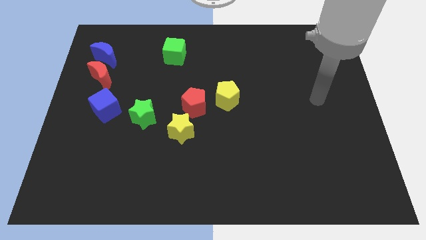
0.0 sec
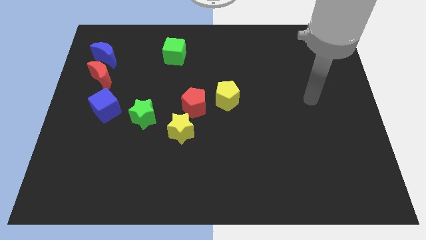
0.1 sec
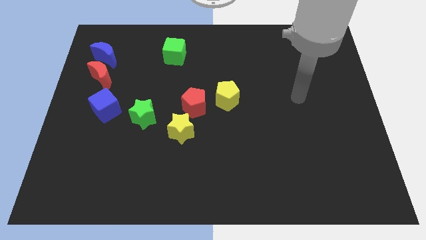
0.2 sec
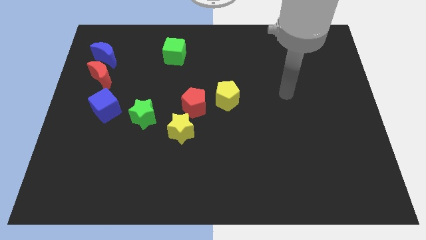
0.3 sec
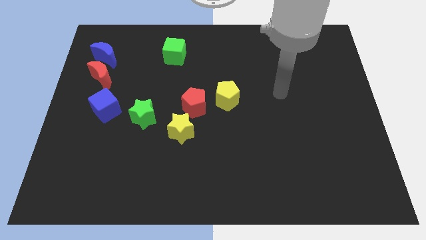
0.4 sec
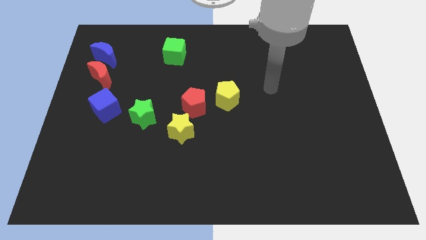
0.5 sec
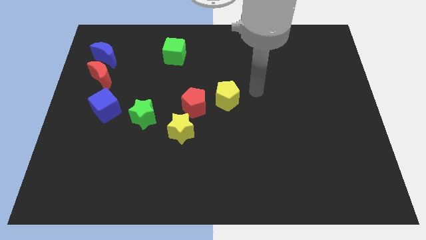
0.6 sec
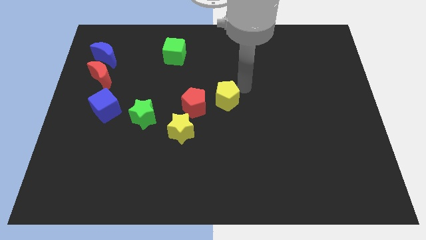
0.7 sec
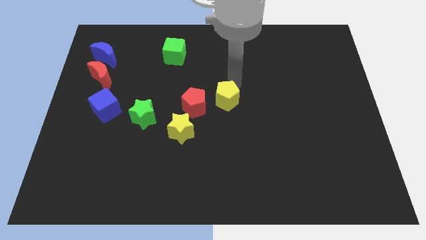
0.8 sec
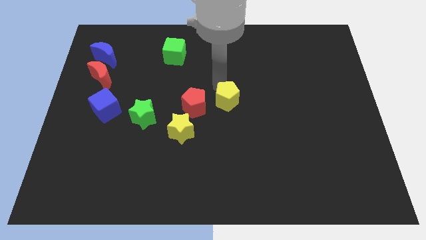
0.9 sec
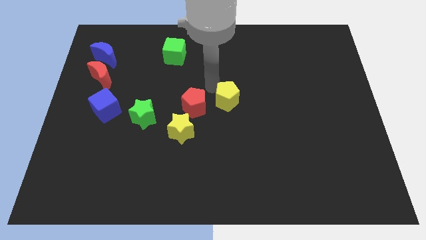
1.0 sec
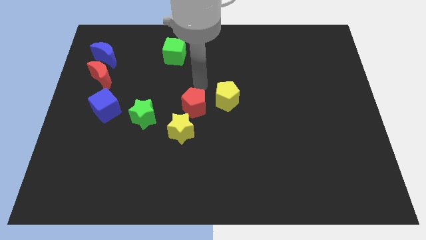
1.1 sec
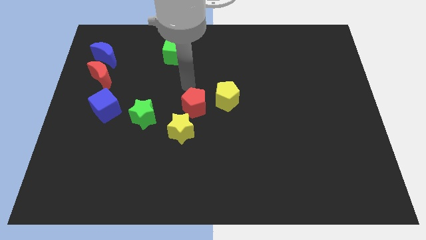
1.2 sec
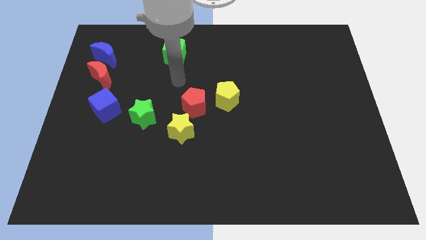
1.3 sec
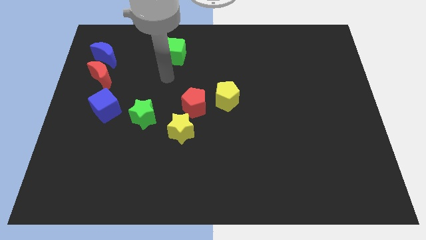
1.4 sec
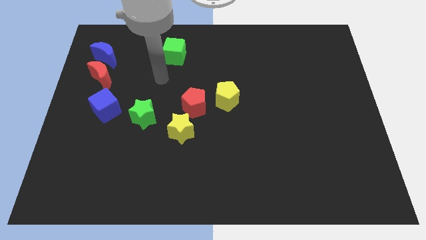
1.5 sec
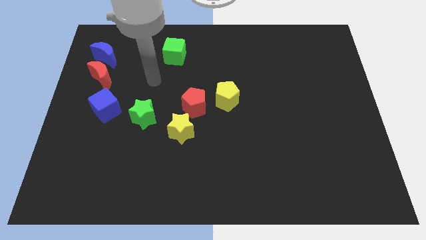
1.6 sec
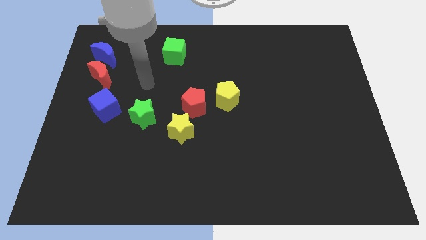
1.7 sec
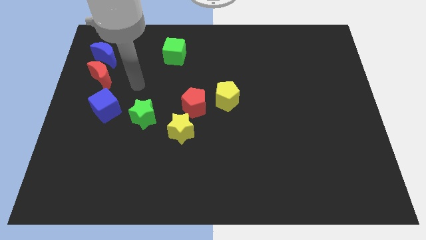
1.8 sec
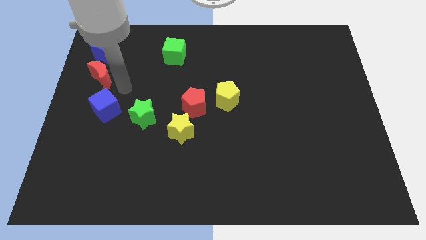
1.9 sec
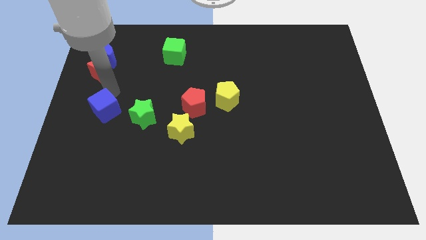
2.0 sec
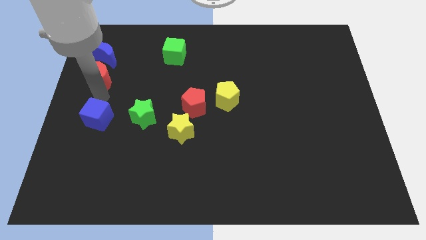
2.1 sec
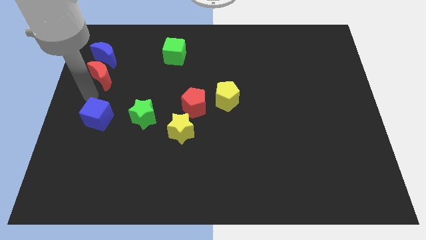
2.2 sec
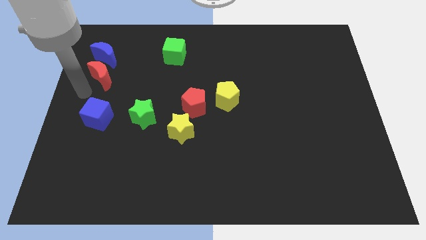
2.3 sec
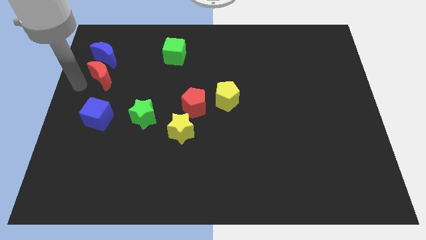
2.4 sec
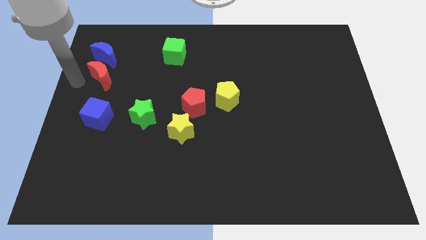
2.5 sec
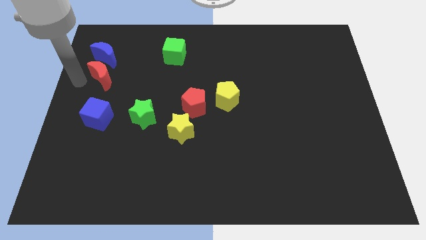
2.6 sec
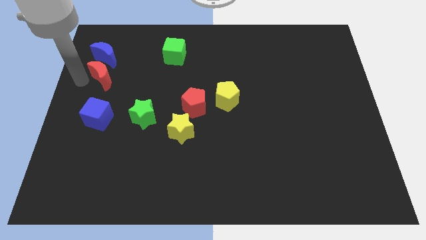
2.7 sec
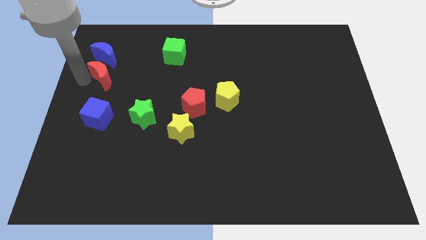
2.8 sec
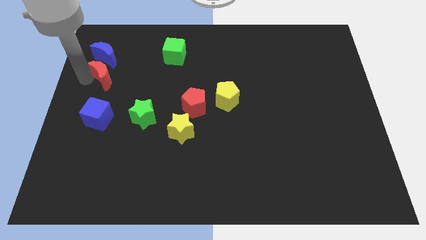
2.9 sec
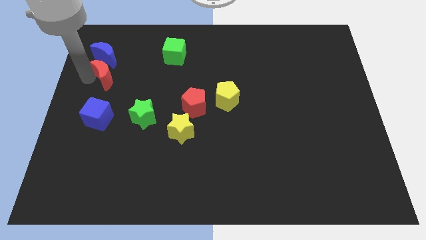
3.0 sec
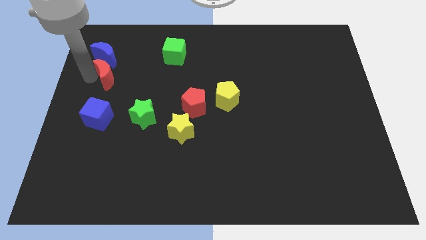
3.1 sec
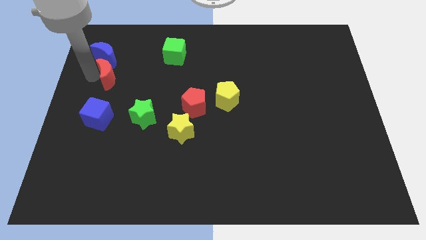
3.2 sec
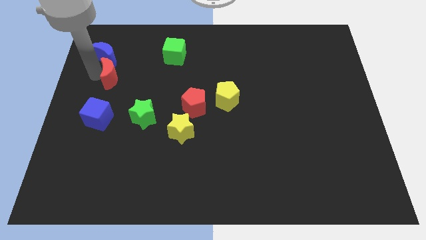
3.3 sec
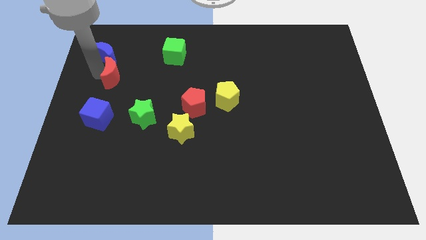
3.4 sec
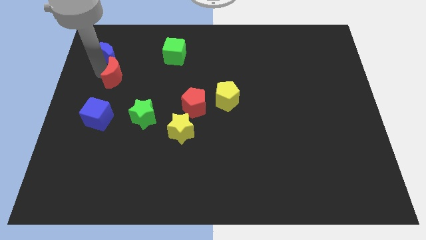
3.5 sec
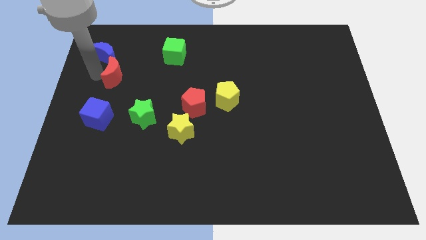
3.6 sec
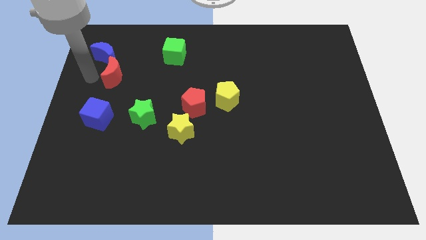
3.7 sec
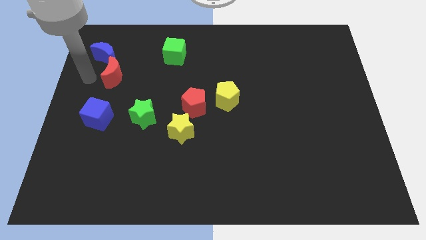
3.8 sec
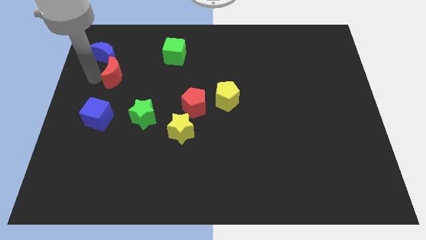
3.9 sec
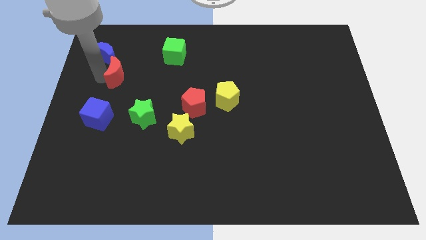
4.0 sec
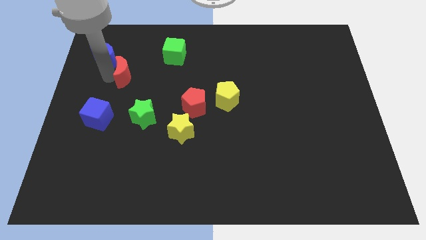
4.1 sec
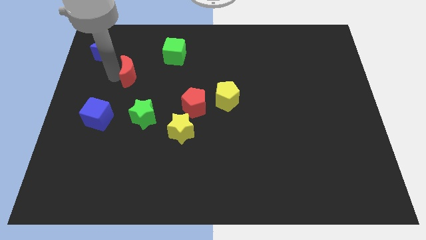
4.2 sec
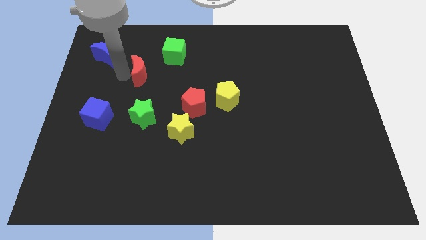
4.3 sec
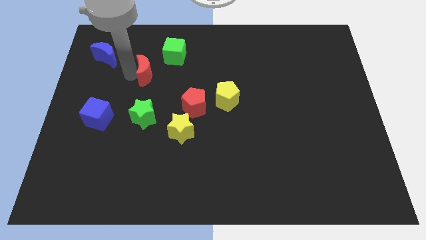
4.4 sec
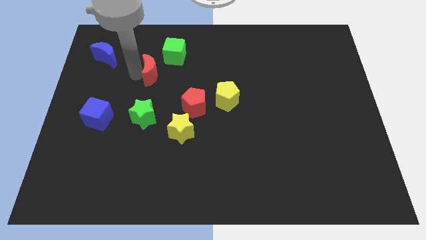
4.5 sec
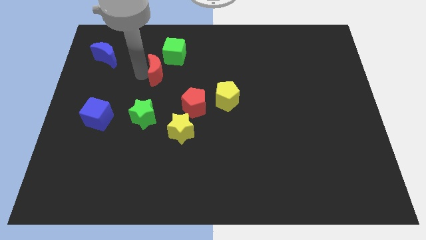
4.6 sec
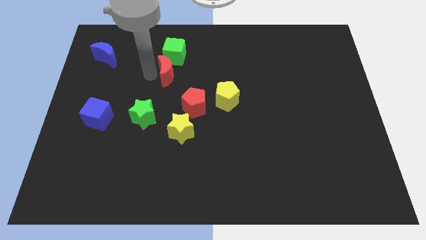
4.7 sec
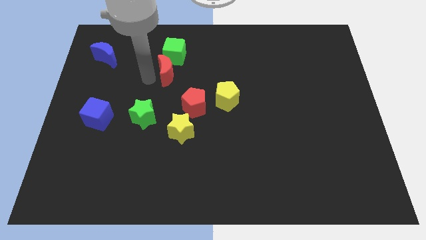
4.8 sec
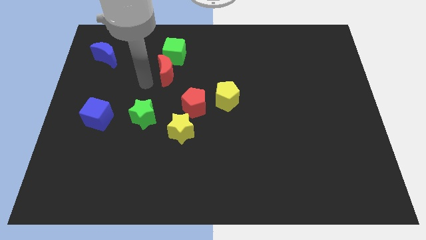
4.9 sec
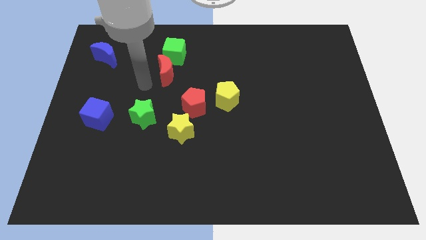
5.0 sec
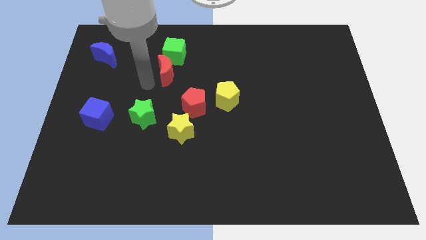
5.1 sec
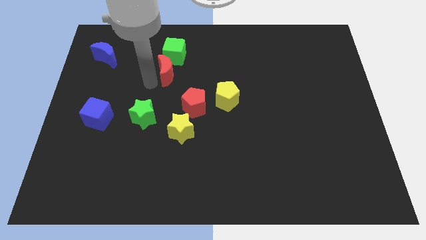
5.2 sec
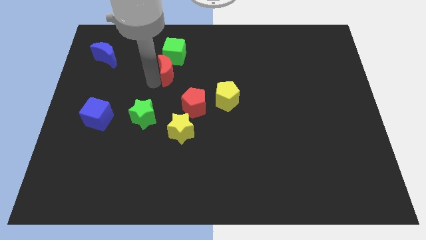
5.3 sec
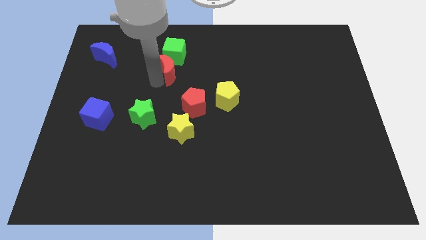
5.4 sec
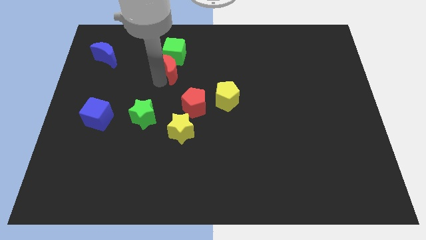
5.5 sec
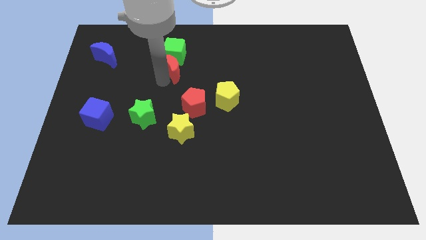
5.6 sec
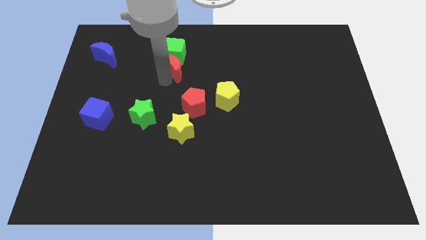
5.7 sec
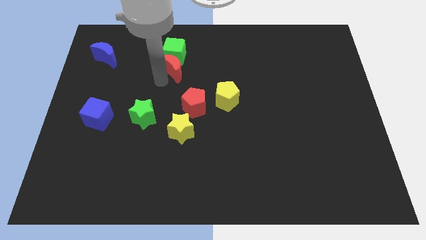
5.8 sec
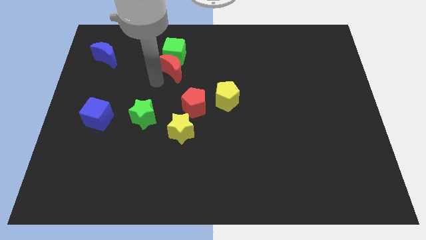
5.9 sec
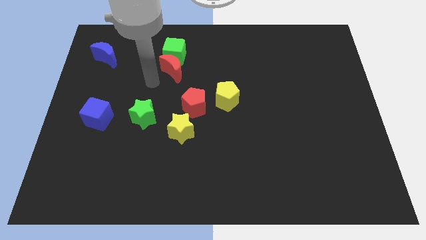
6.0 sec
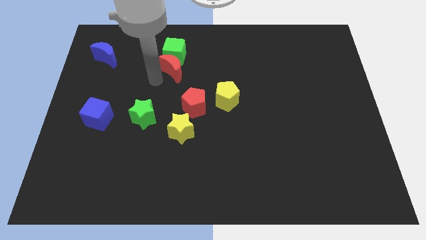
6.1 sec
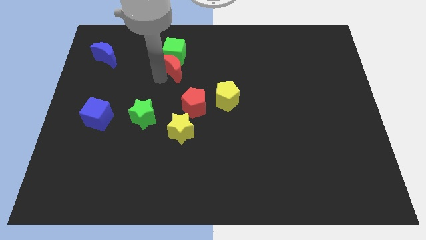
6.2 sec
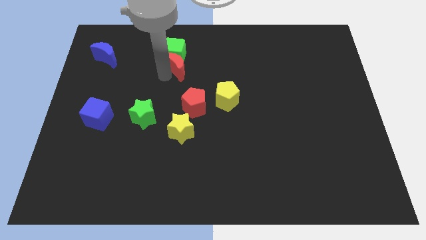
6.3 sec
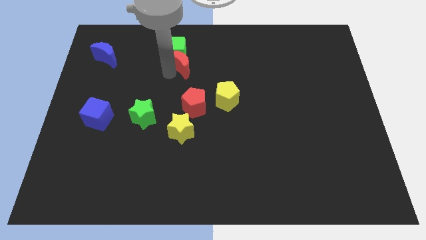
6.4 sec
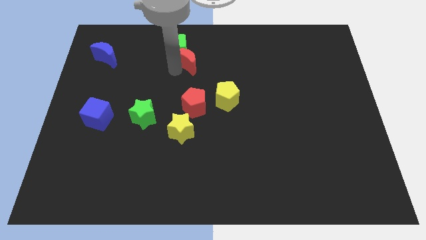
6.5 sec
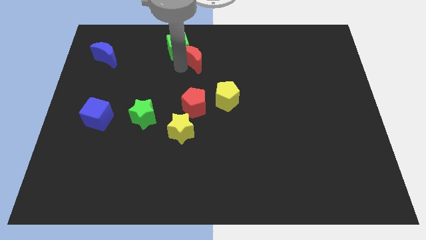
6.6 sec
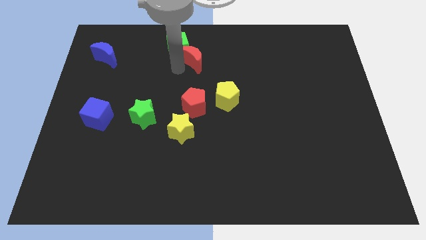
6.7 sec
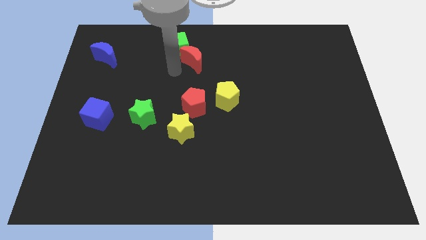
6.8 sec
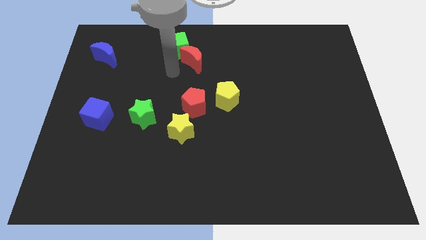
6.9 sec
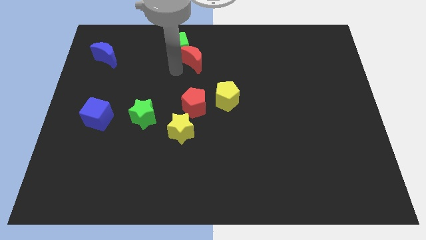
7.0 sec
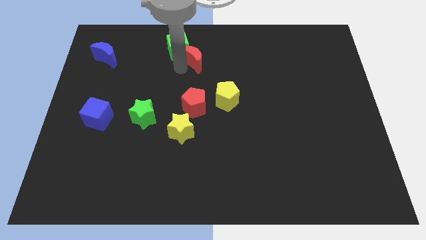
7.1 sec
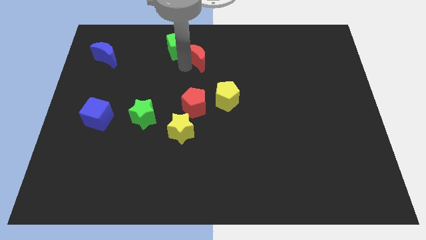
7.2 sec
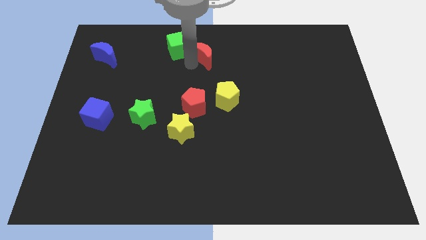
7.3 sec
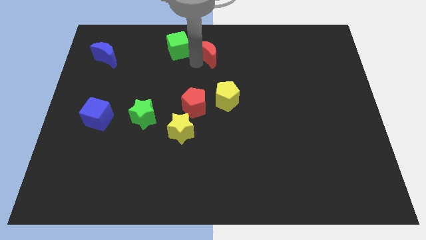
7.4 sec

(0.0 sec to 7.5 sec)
move the red moon to the towards your base
